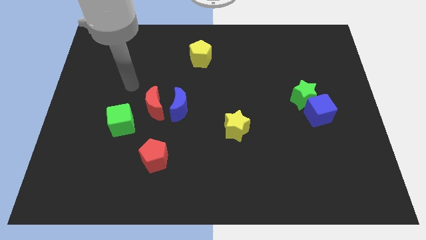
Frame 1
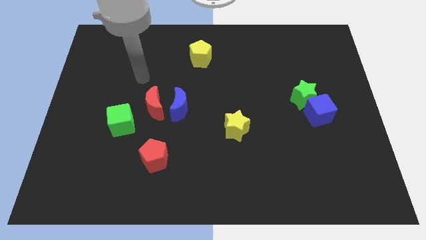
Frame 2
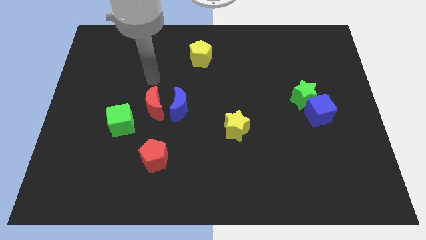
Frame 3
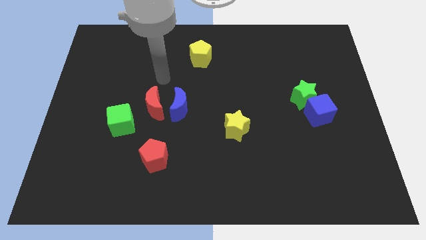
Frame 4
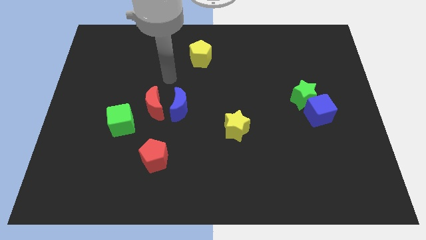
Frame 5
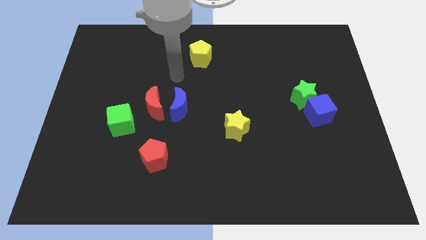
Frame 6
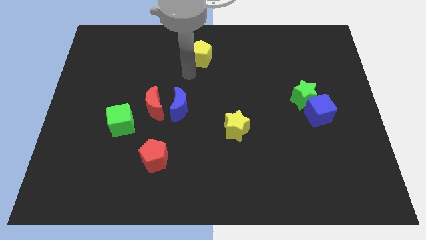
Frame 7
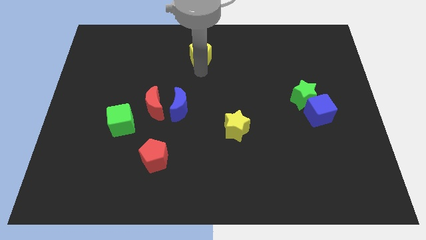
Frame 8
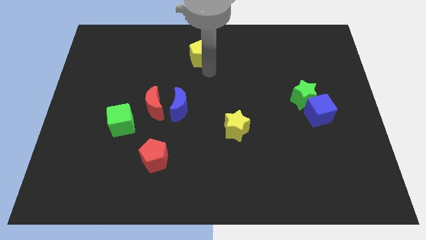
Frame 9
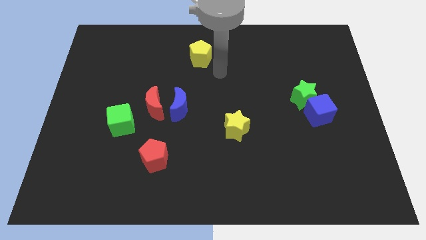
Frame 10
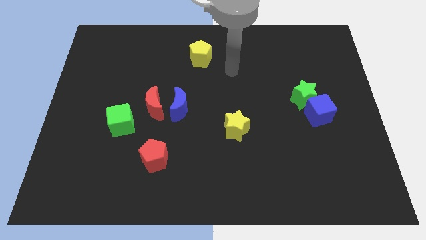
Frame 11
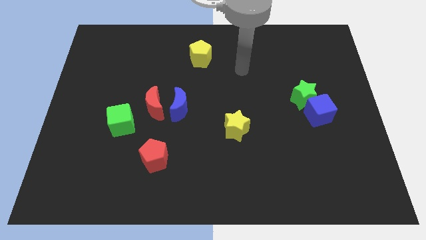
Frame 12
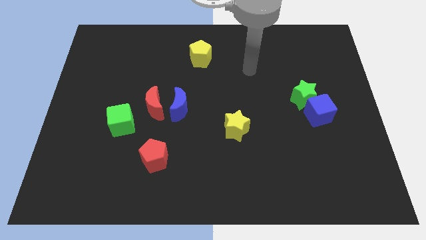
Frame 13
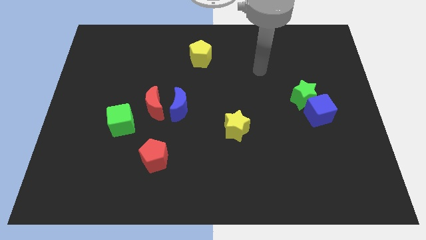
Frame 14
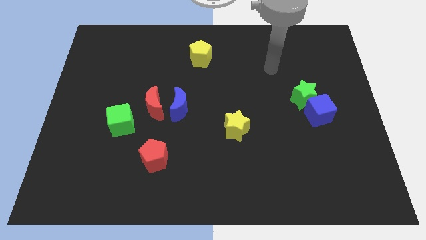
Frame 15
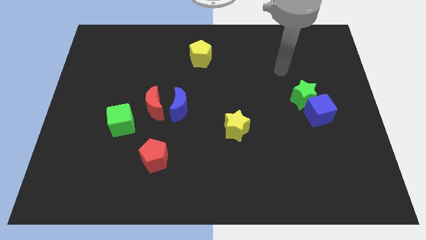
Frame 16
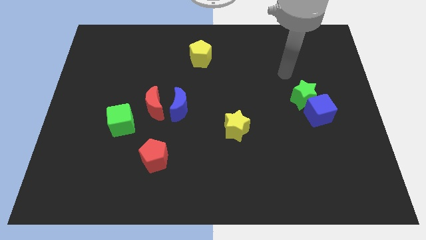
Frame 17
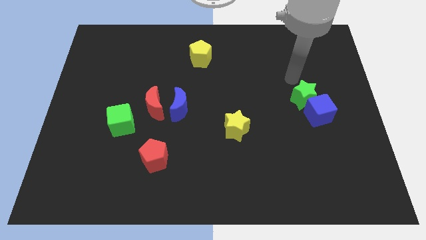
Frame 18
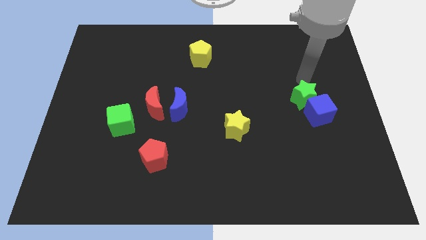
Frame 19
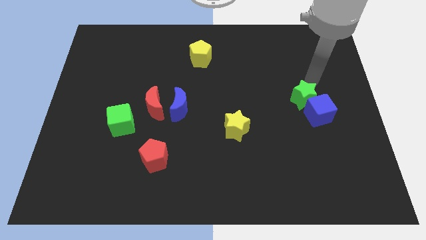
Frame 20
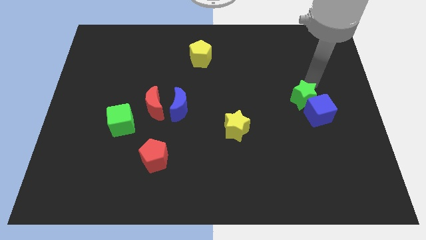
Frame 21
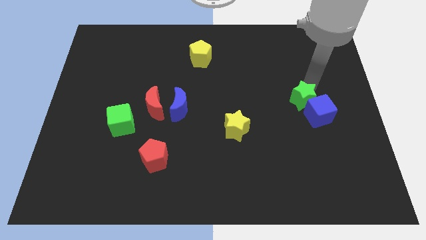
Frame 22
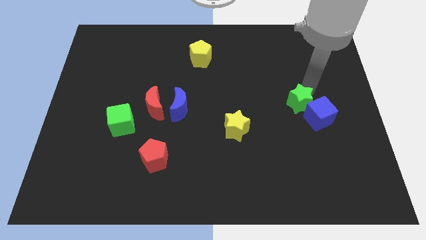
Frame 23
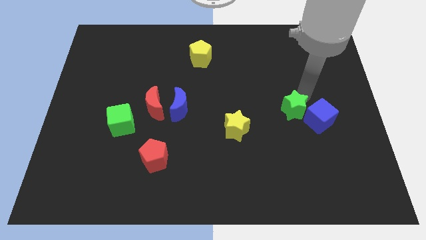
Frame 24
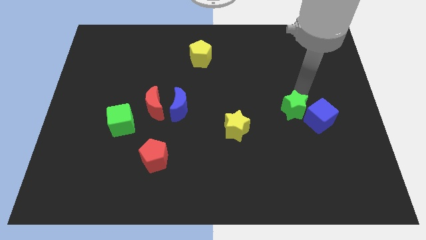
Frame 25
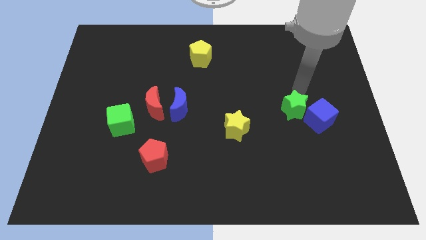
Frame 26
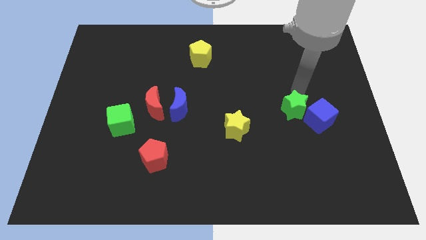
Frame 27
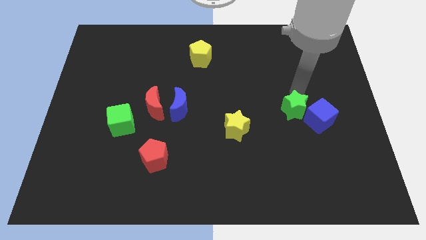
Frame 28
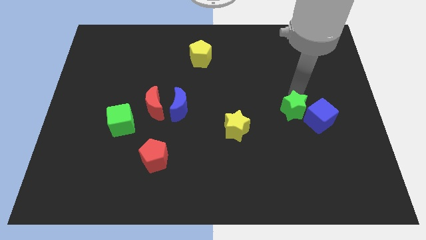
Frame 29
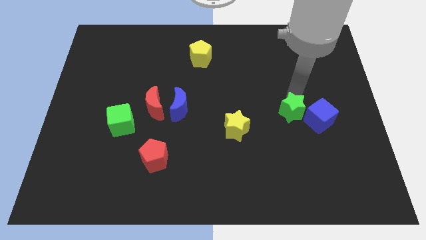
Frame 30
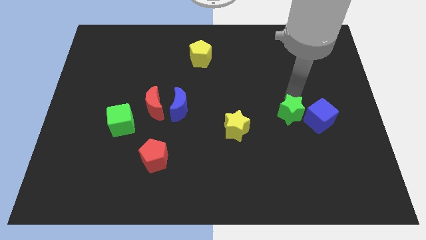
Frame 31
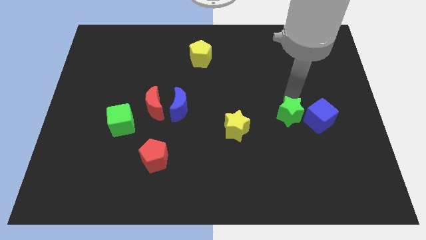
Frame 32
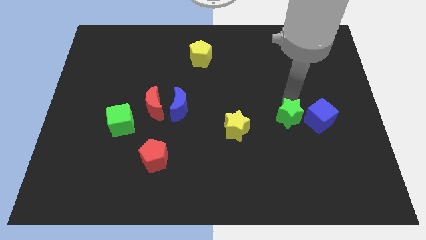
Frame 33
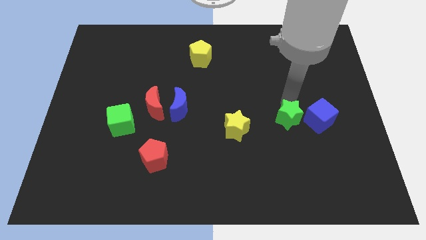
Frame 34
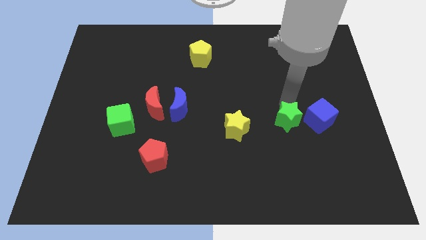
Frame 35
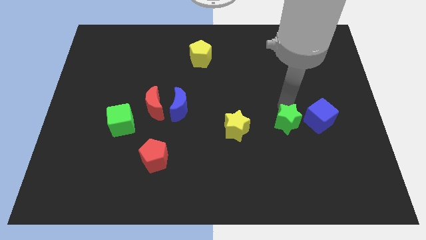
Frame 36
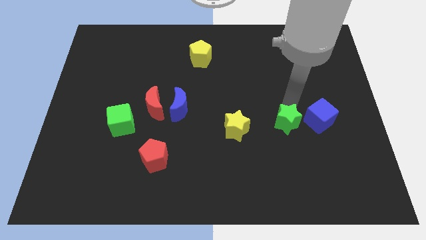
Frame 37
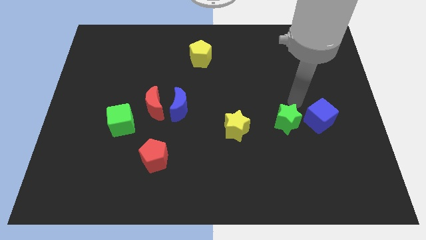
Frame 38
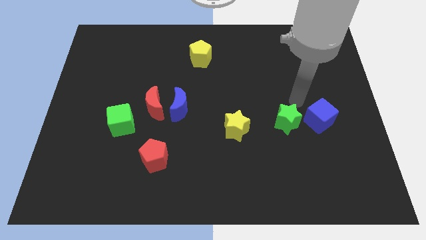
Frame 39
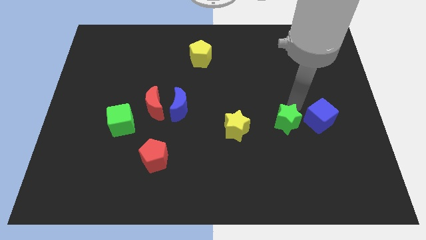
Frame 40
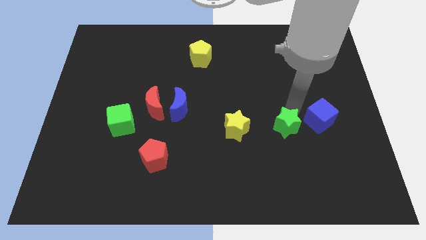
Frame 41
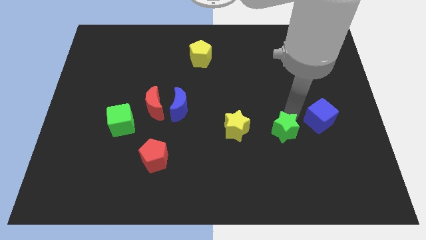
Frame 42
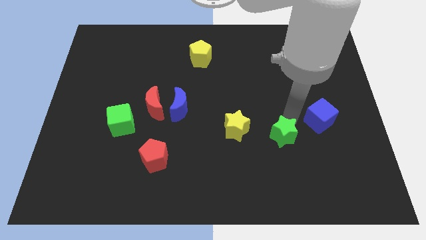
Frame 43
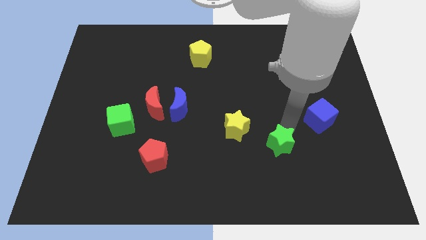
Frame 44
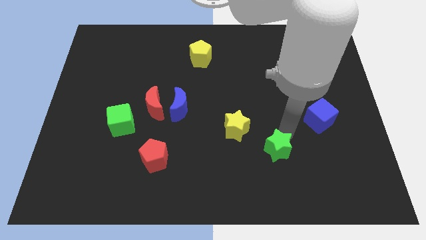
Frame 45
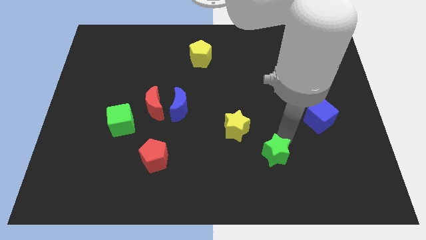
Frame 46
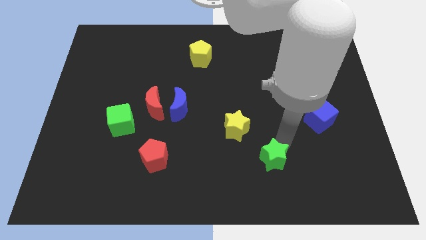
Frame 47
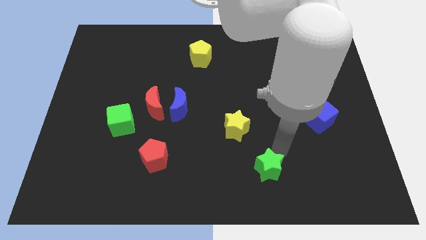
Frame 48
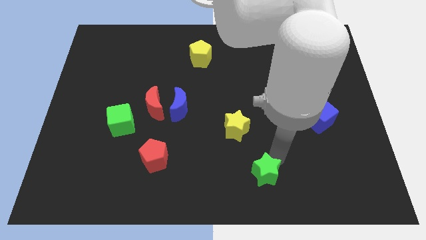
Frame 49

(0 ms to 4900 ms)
put the green star to the bottom side

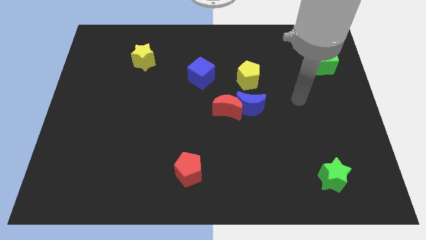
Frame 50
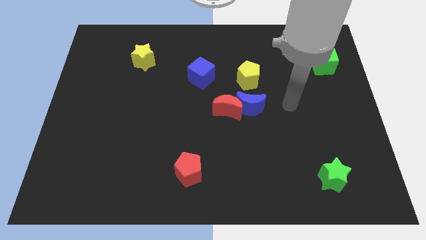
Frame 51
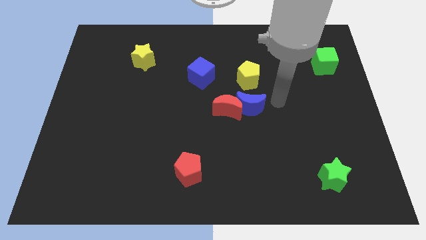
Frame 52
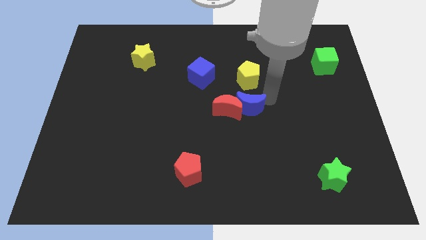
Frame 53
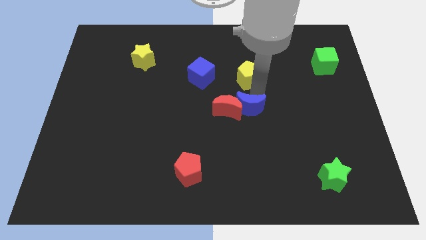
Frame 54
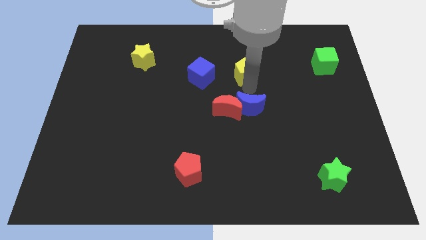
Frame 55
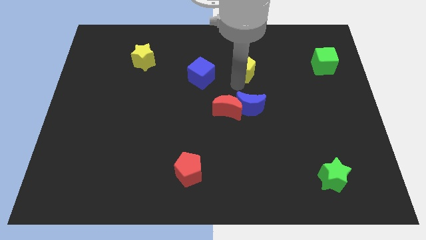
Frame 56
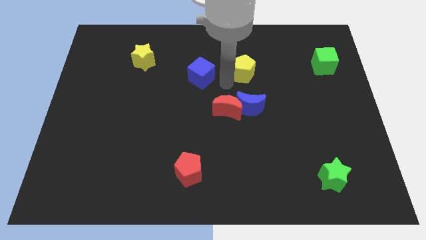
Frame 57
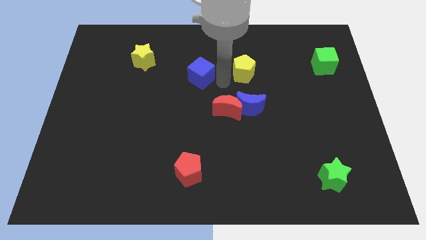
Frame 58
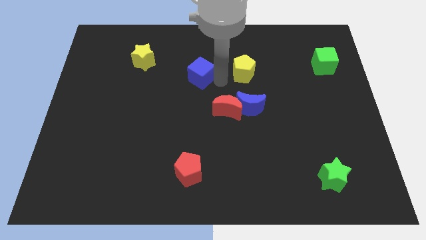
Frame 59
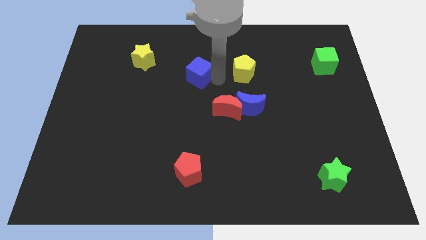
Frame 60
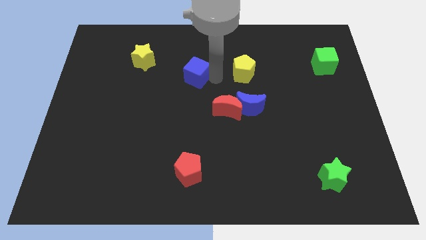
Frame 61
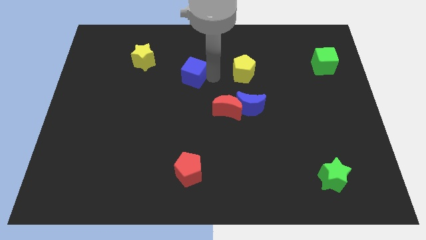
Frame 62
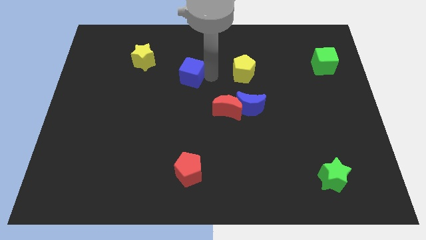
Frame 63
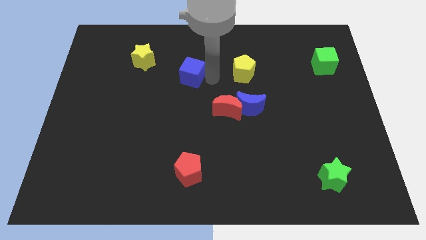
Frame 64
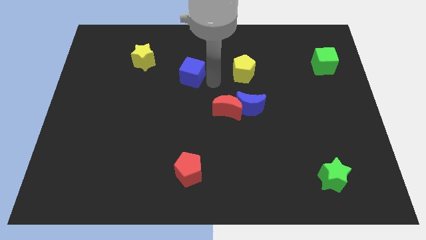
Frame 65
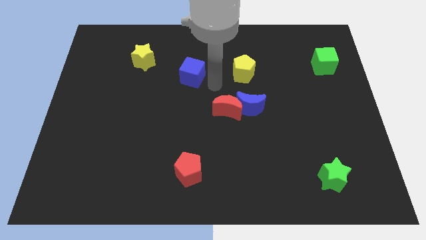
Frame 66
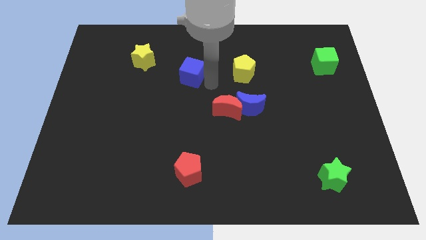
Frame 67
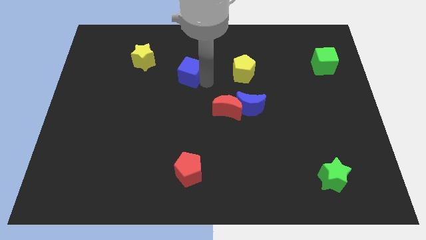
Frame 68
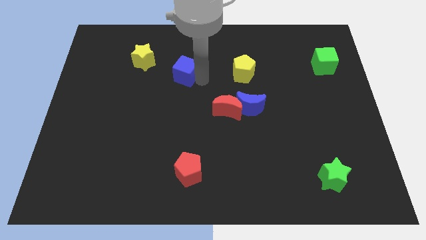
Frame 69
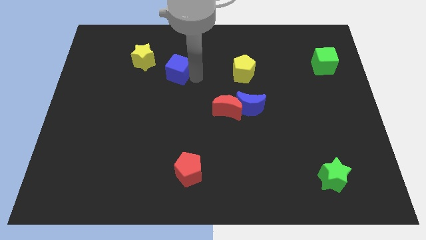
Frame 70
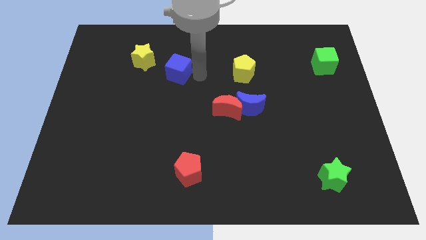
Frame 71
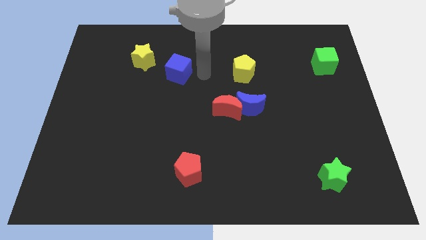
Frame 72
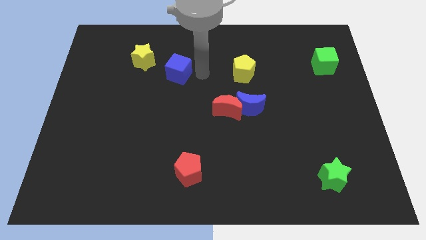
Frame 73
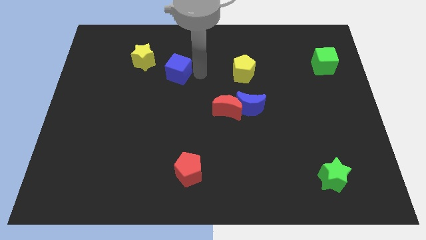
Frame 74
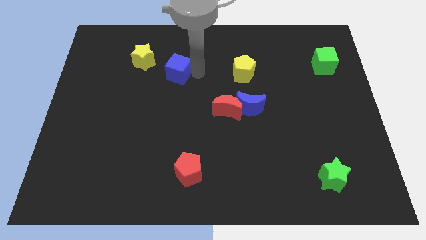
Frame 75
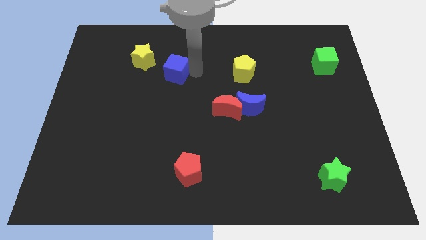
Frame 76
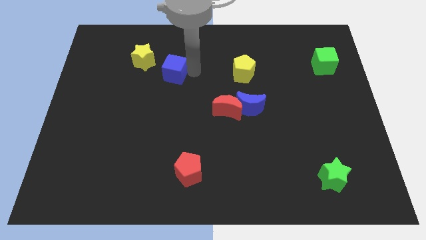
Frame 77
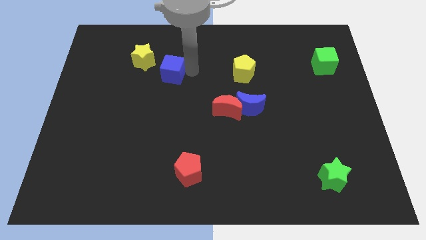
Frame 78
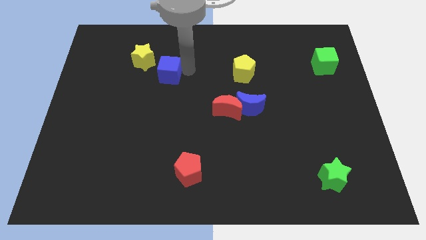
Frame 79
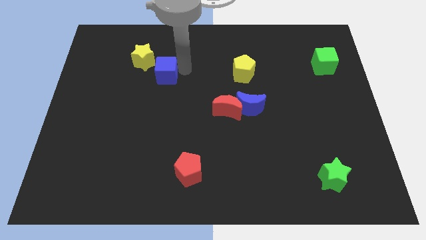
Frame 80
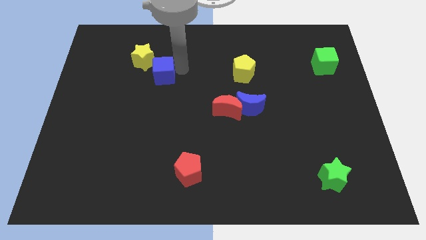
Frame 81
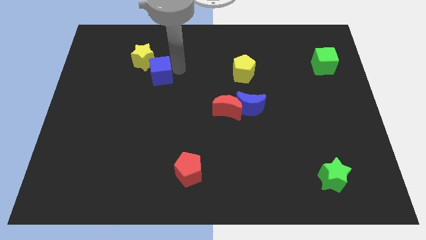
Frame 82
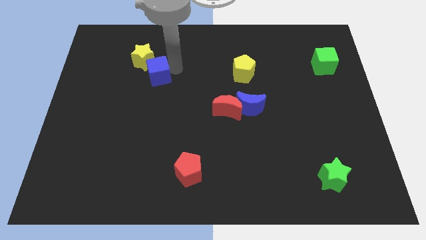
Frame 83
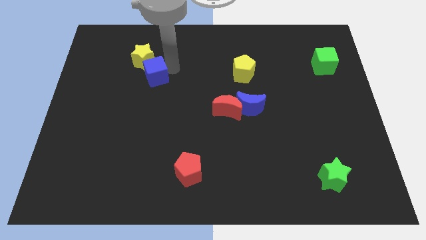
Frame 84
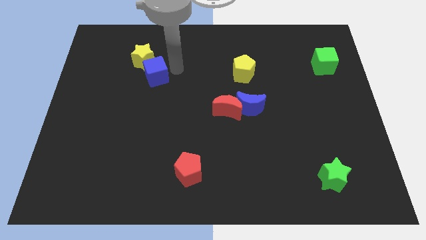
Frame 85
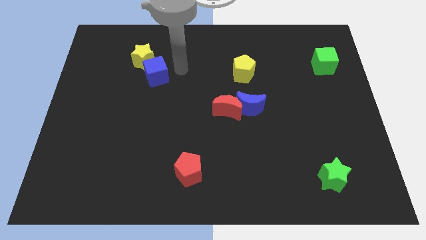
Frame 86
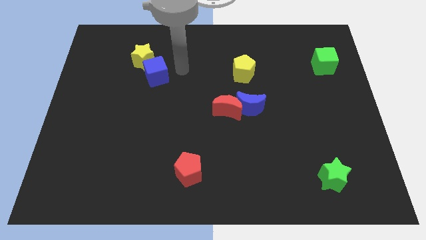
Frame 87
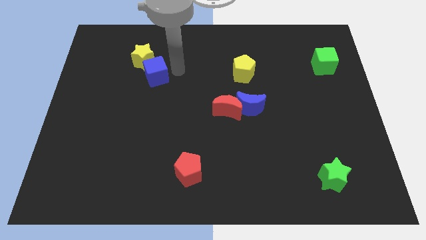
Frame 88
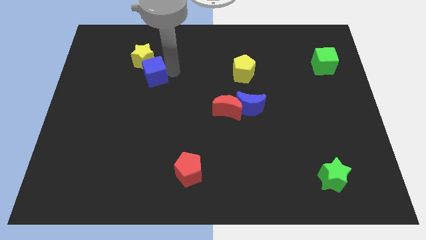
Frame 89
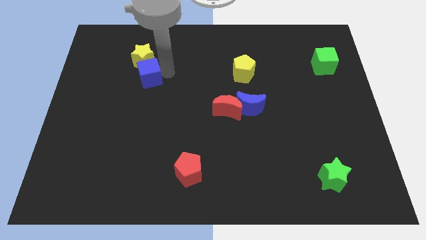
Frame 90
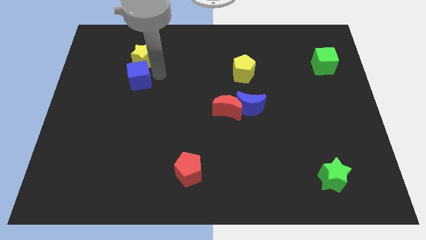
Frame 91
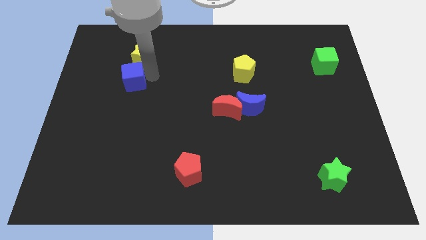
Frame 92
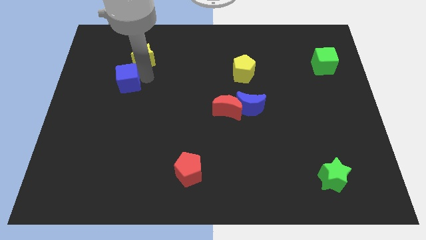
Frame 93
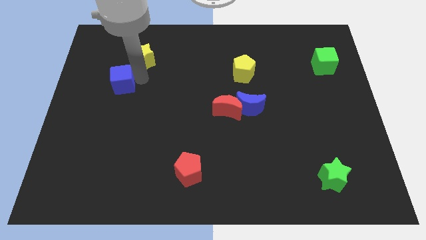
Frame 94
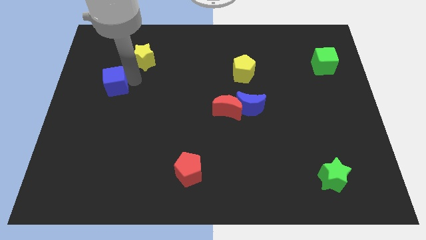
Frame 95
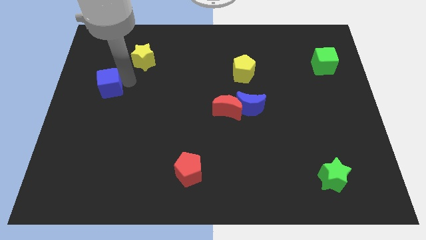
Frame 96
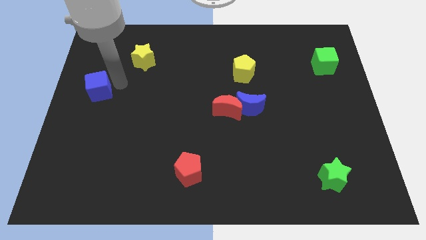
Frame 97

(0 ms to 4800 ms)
put the blue cube to the center left
